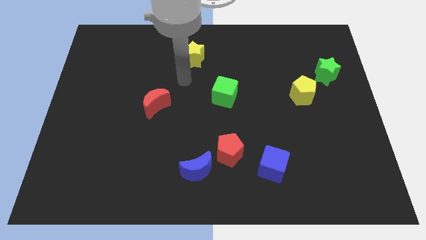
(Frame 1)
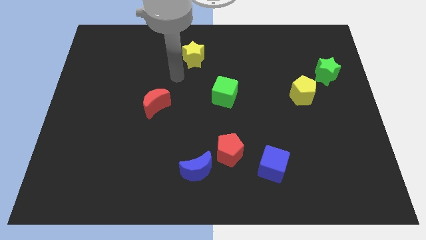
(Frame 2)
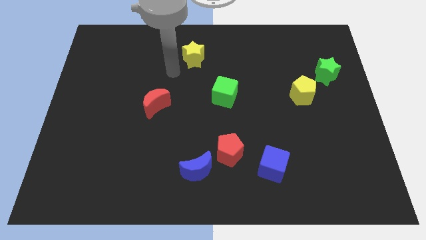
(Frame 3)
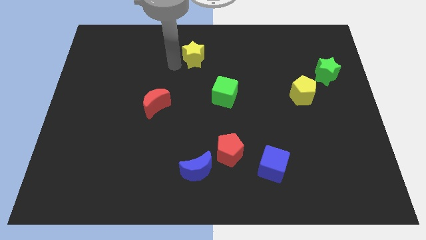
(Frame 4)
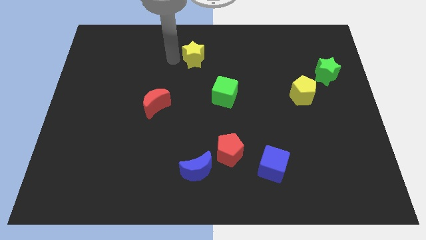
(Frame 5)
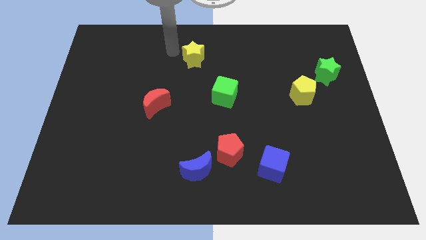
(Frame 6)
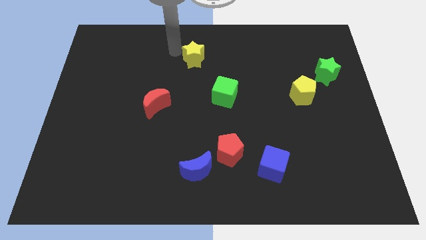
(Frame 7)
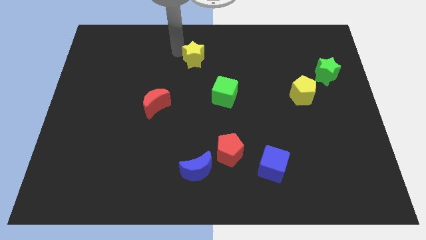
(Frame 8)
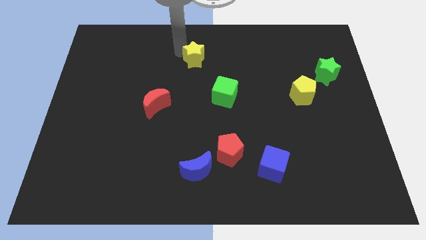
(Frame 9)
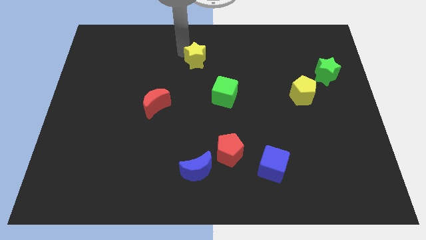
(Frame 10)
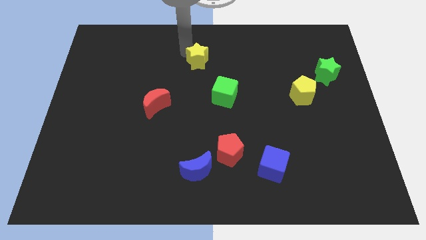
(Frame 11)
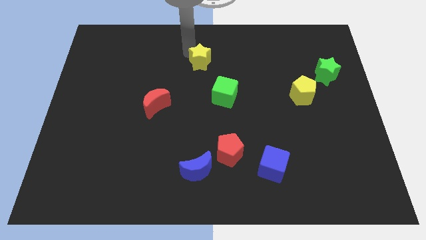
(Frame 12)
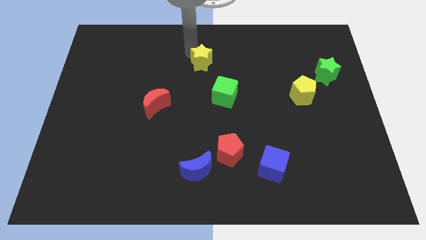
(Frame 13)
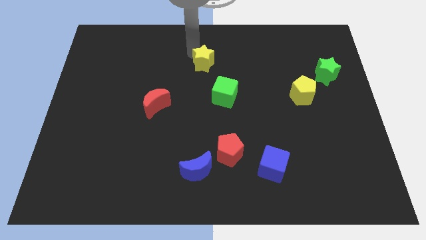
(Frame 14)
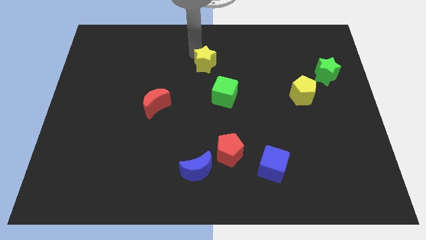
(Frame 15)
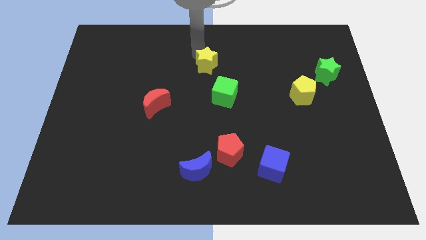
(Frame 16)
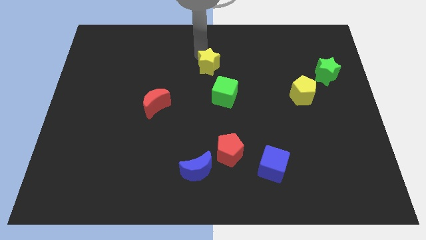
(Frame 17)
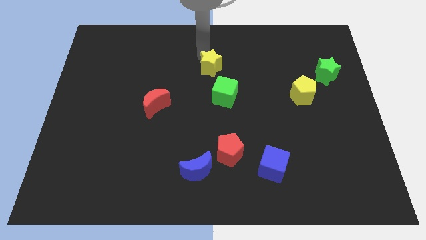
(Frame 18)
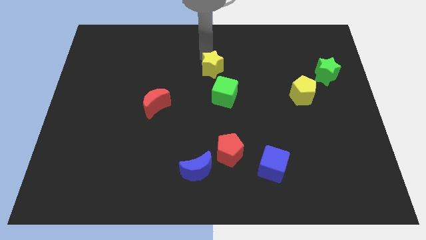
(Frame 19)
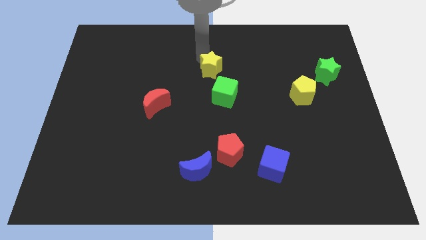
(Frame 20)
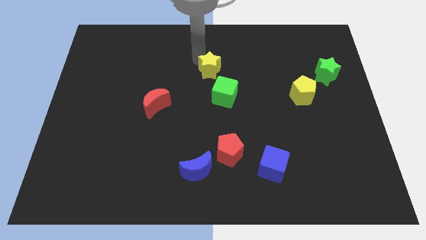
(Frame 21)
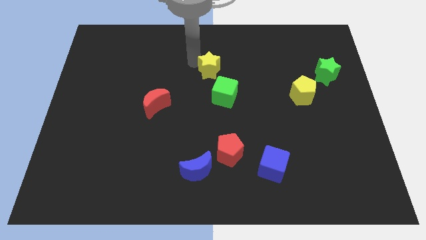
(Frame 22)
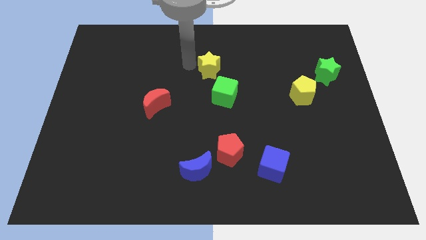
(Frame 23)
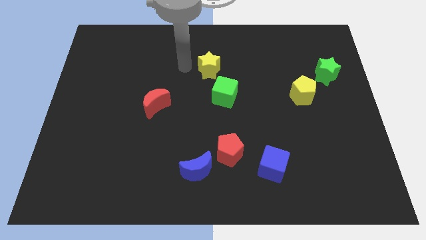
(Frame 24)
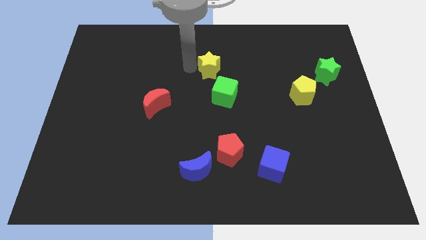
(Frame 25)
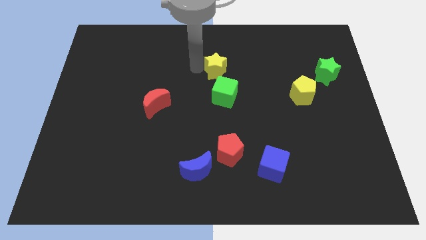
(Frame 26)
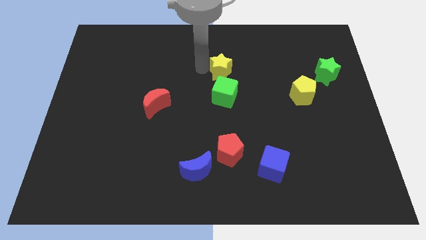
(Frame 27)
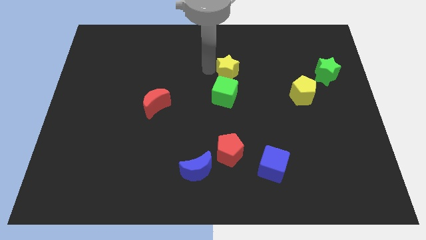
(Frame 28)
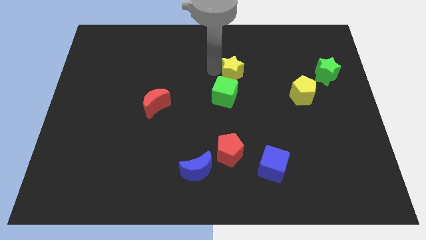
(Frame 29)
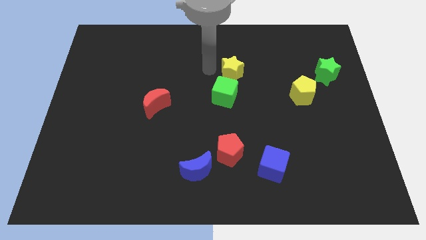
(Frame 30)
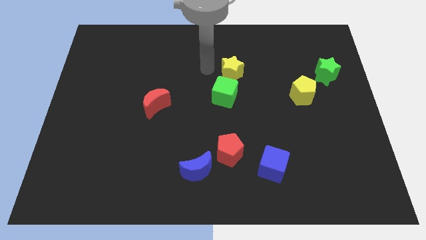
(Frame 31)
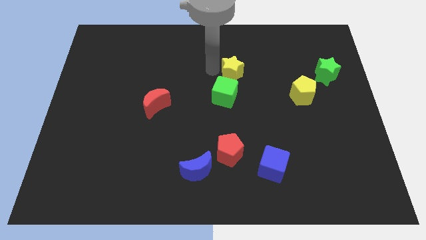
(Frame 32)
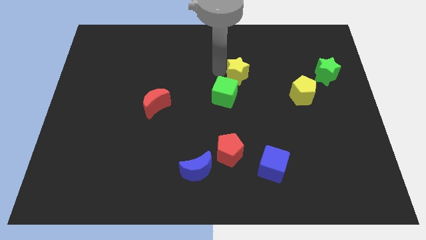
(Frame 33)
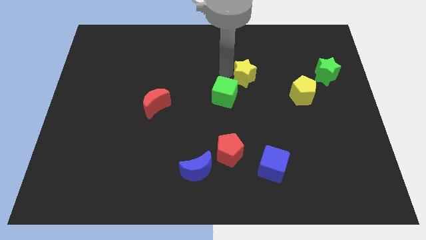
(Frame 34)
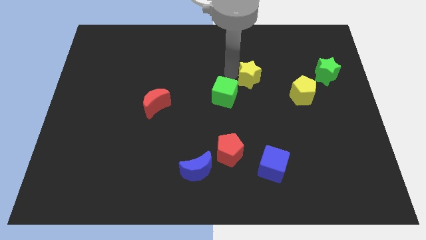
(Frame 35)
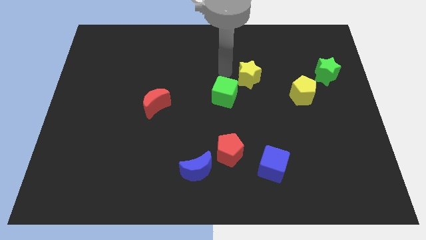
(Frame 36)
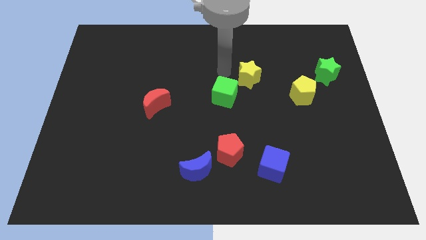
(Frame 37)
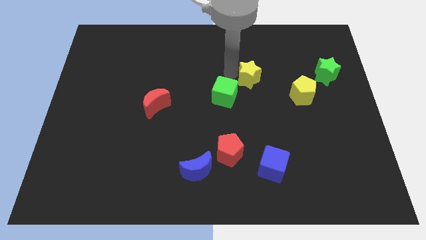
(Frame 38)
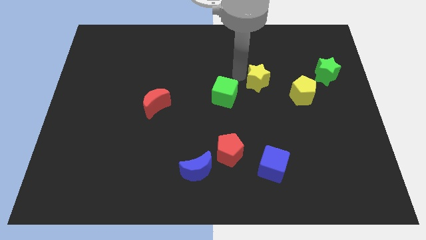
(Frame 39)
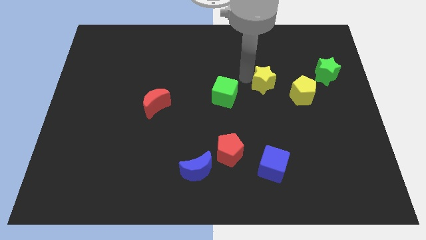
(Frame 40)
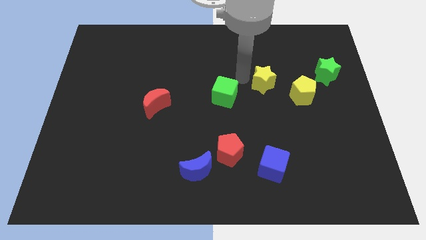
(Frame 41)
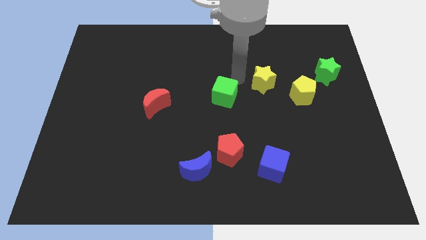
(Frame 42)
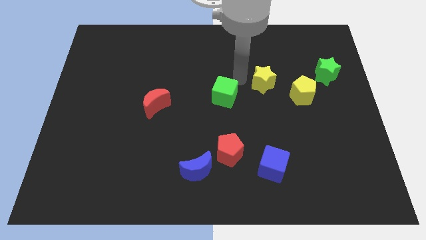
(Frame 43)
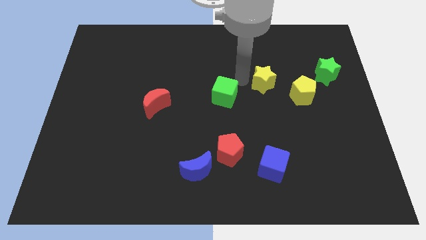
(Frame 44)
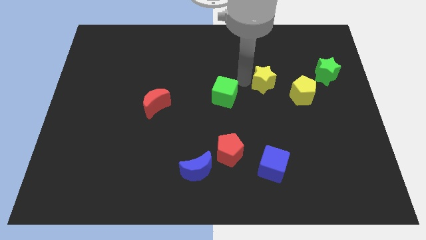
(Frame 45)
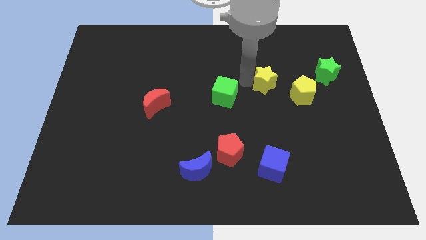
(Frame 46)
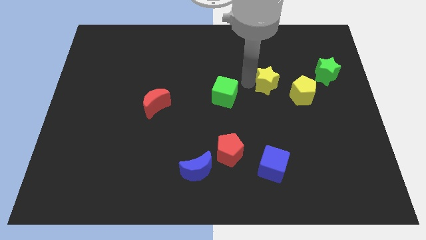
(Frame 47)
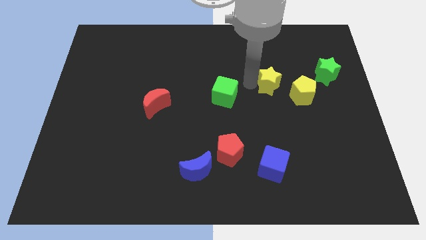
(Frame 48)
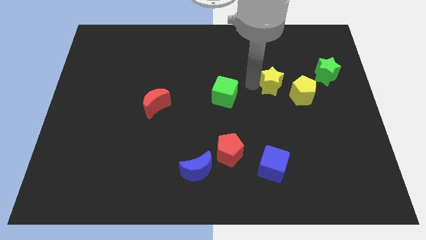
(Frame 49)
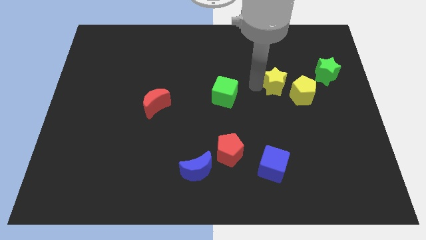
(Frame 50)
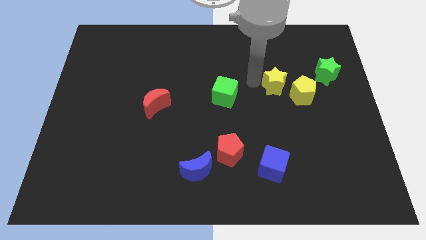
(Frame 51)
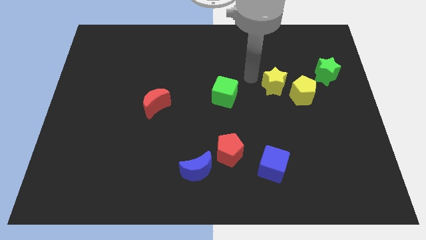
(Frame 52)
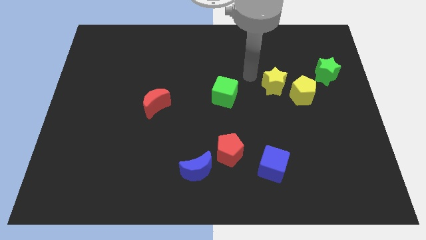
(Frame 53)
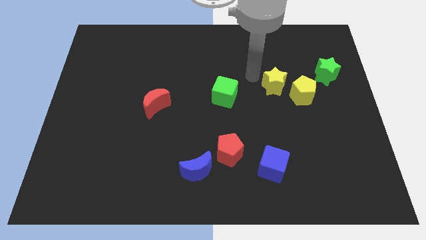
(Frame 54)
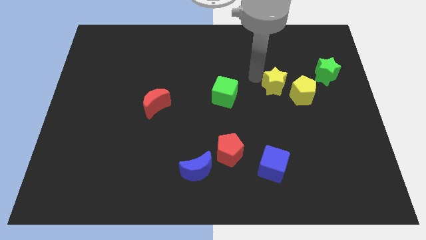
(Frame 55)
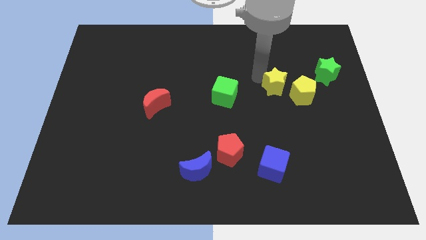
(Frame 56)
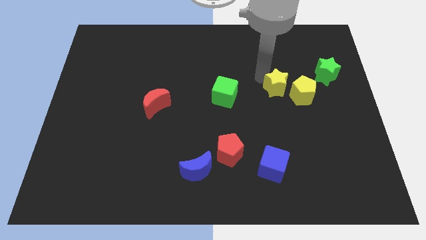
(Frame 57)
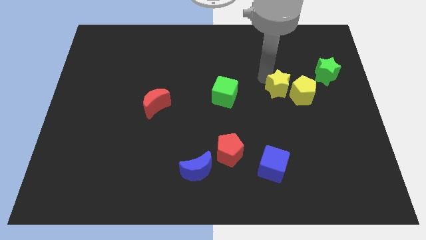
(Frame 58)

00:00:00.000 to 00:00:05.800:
move the yellow star next to the yellow pentagon

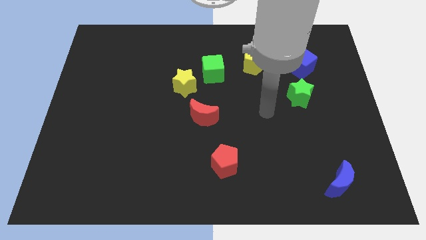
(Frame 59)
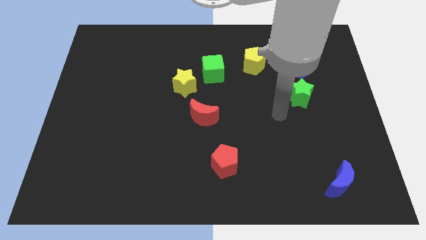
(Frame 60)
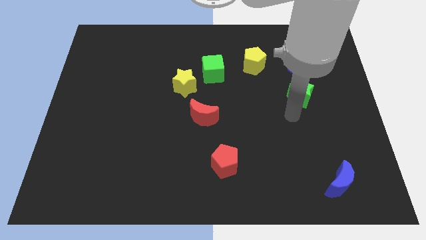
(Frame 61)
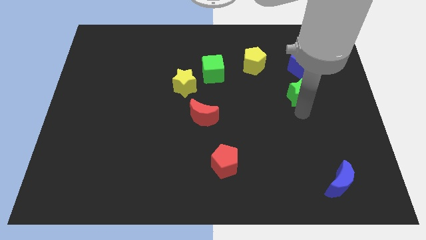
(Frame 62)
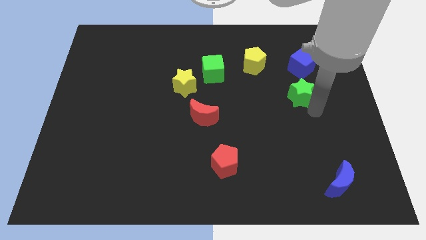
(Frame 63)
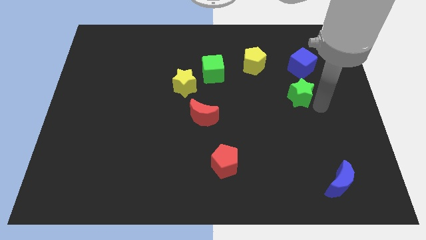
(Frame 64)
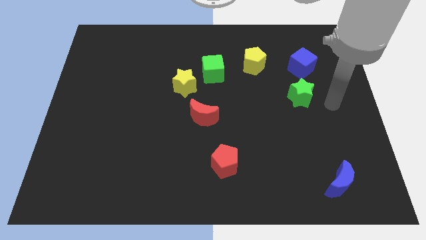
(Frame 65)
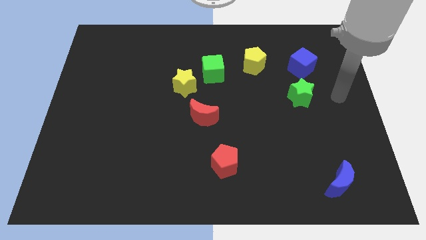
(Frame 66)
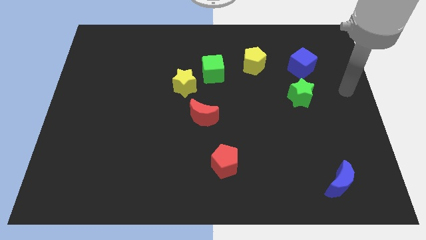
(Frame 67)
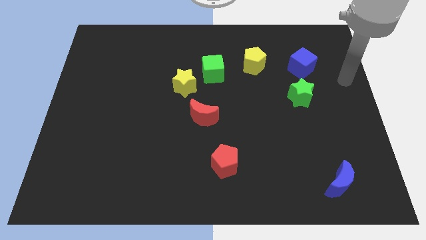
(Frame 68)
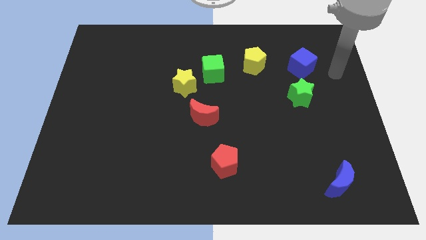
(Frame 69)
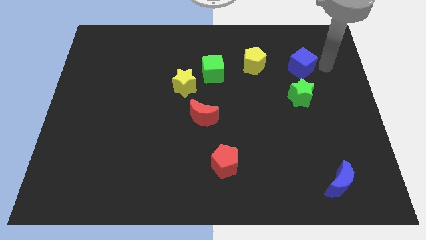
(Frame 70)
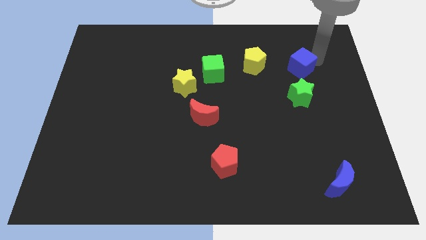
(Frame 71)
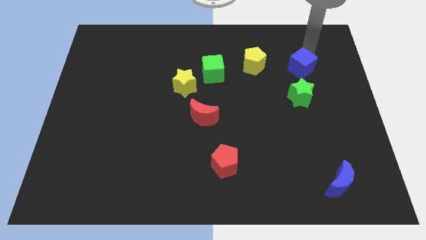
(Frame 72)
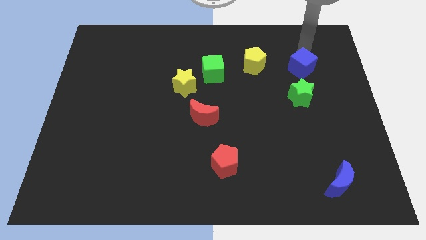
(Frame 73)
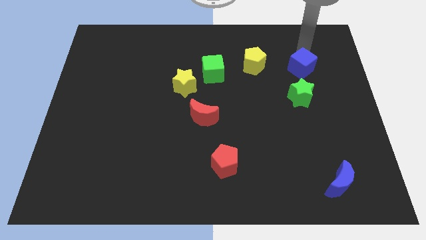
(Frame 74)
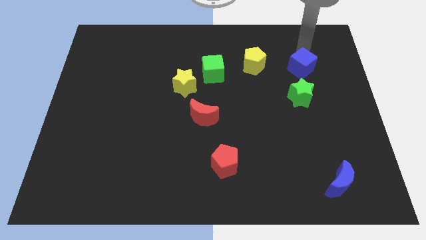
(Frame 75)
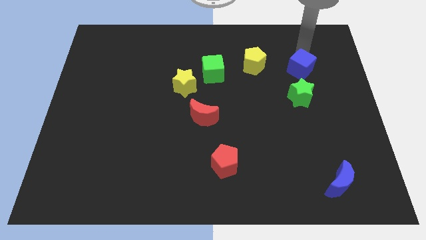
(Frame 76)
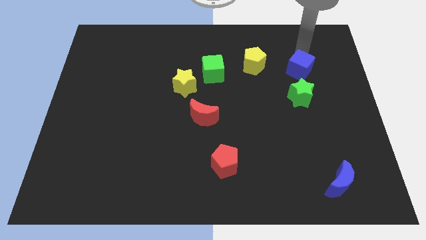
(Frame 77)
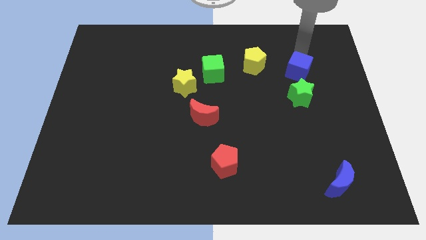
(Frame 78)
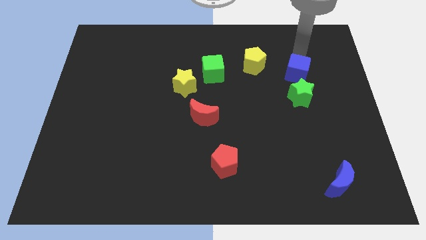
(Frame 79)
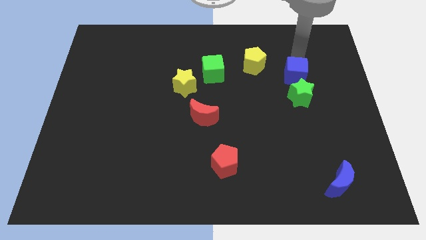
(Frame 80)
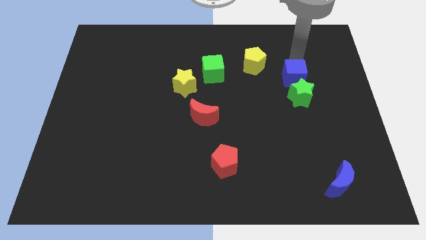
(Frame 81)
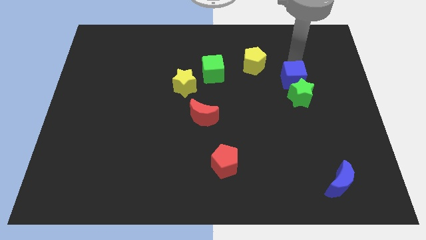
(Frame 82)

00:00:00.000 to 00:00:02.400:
move the blue cube to the green star
